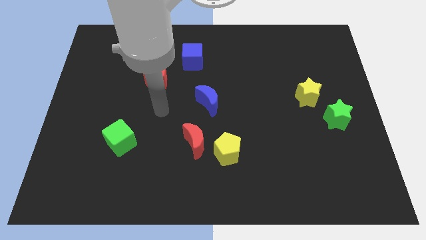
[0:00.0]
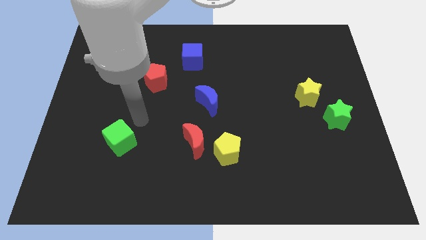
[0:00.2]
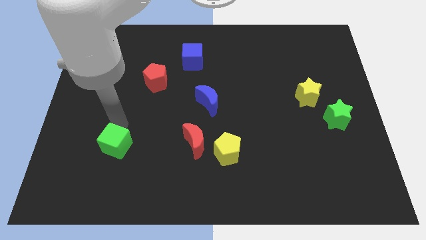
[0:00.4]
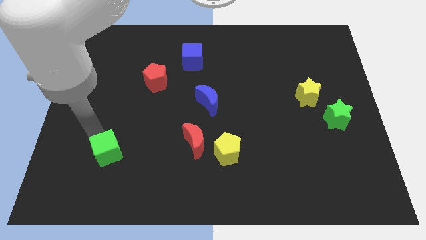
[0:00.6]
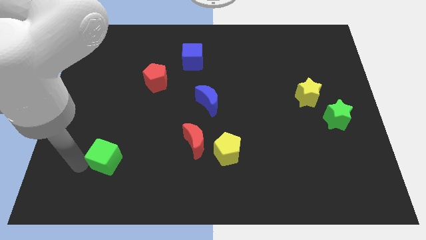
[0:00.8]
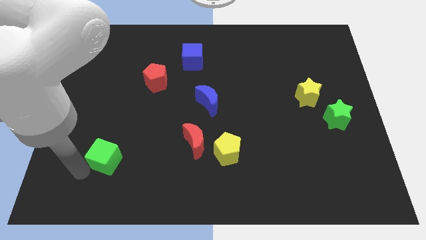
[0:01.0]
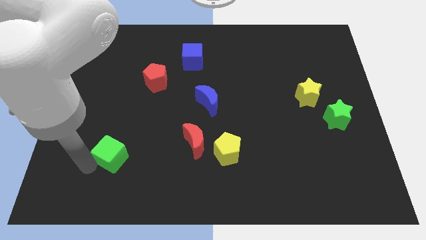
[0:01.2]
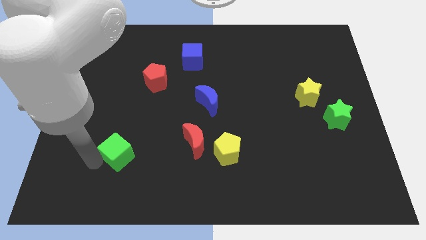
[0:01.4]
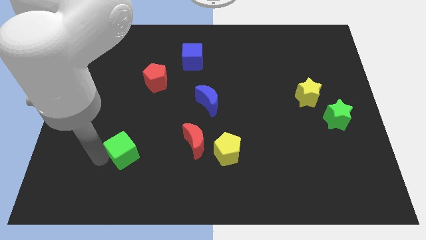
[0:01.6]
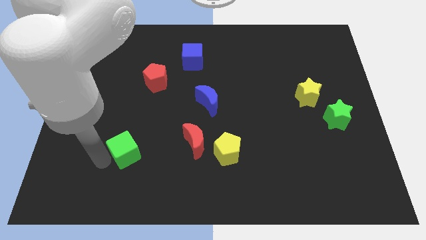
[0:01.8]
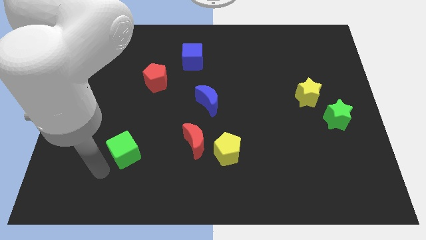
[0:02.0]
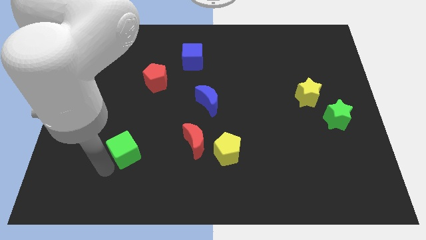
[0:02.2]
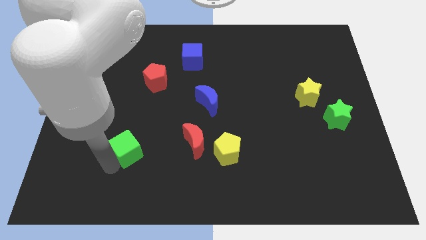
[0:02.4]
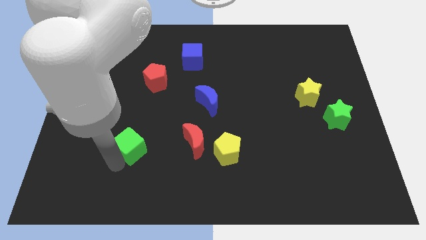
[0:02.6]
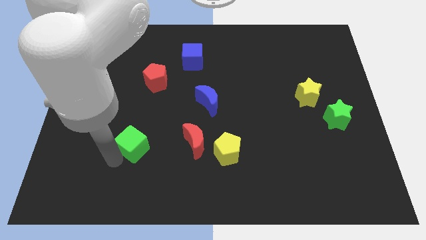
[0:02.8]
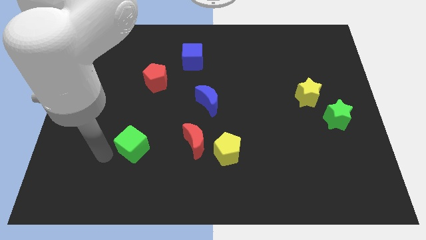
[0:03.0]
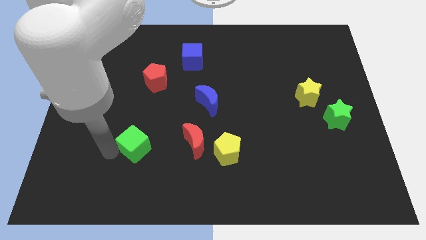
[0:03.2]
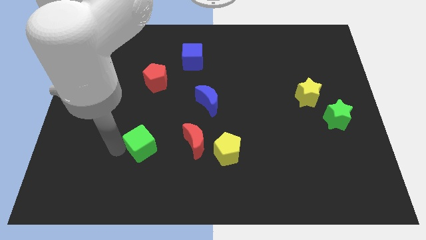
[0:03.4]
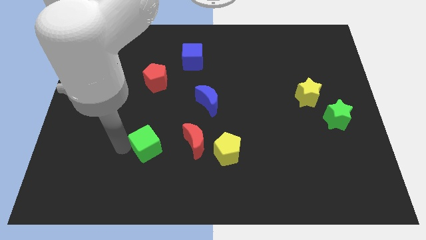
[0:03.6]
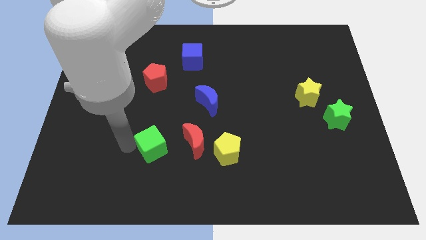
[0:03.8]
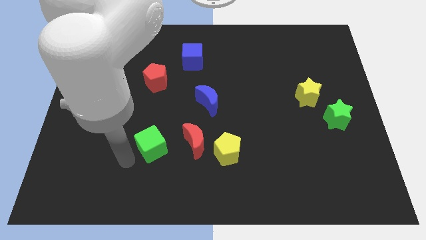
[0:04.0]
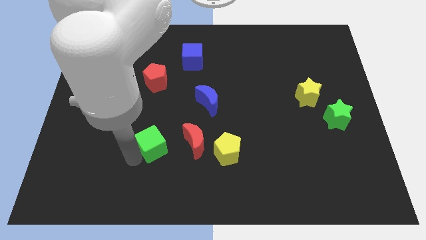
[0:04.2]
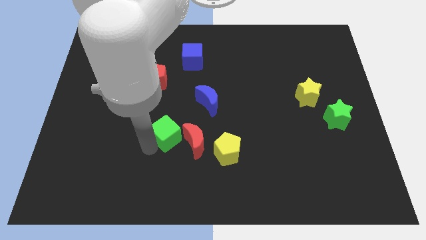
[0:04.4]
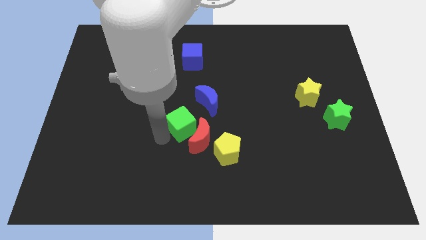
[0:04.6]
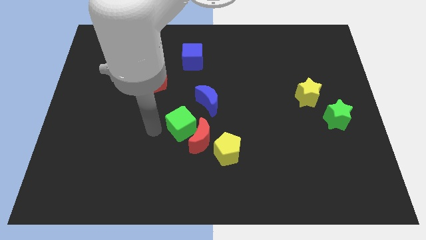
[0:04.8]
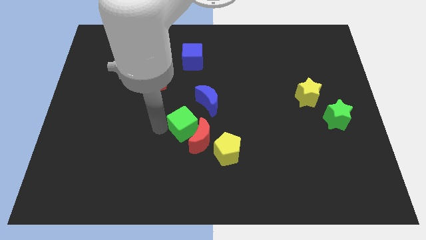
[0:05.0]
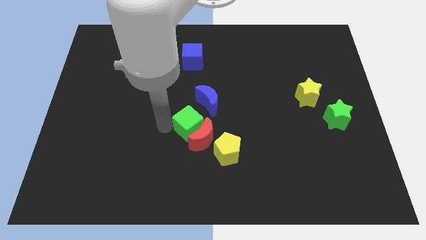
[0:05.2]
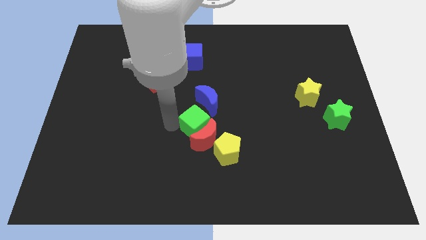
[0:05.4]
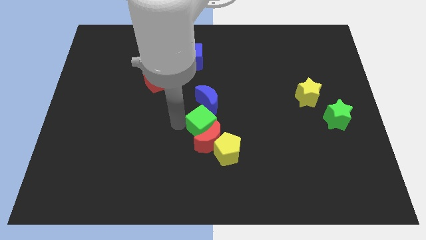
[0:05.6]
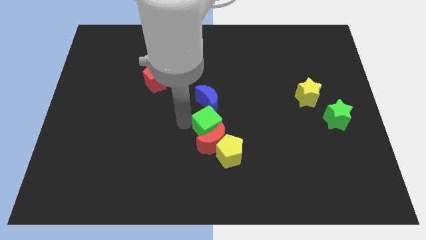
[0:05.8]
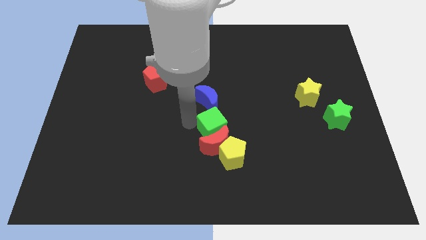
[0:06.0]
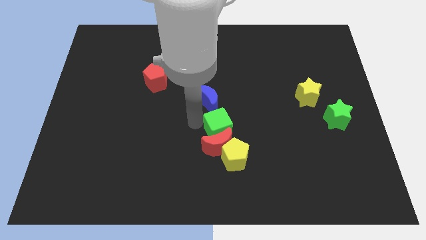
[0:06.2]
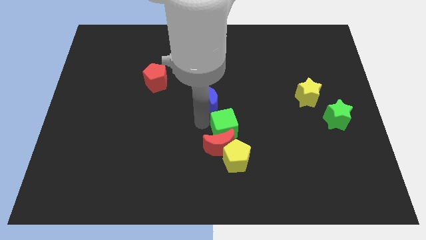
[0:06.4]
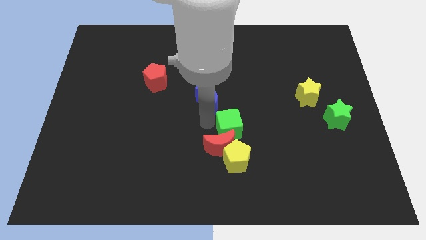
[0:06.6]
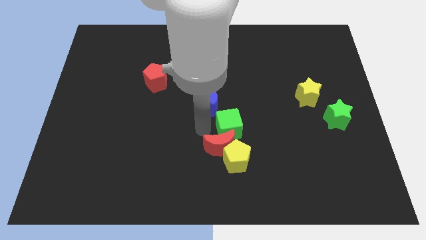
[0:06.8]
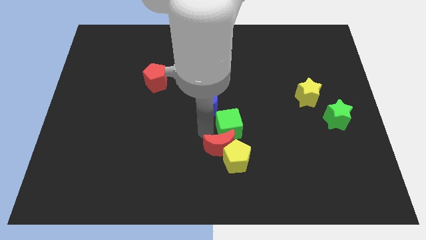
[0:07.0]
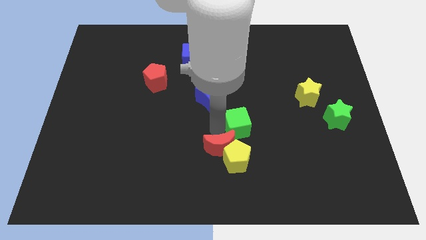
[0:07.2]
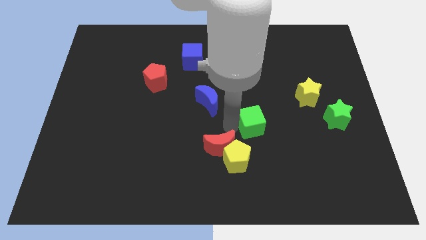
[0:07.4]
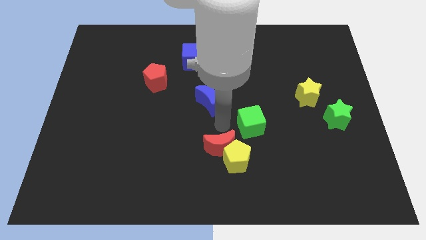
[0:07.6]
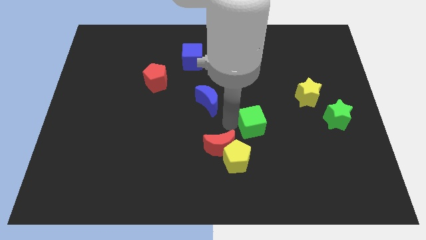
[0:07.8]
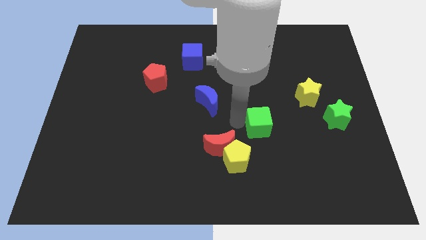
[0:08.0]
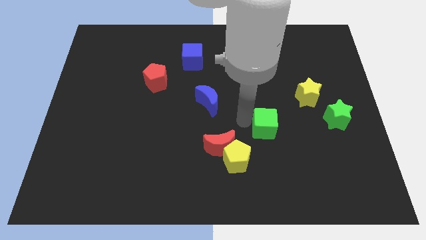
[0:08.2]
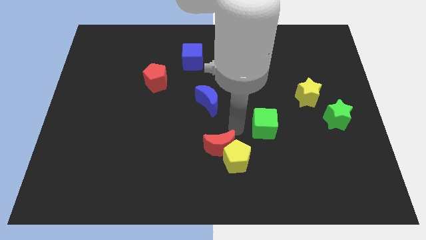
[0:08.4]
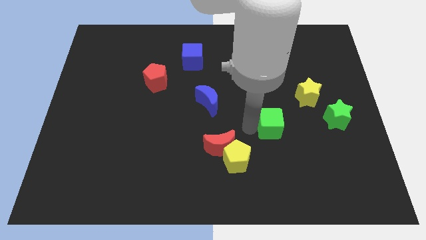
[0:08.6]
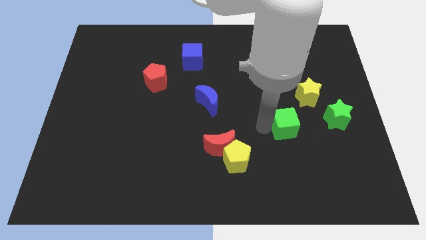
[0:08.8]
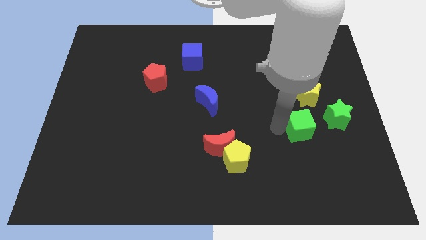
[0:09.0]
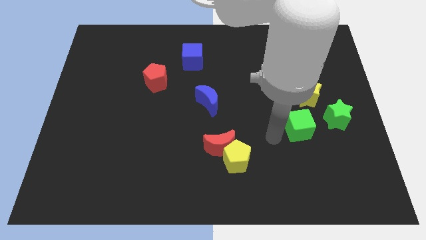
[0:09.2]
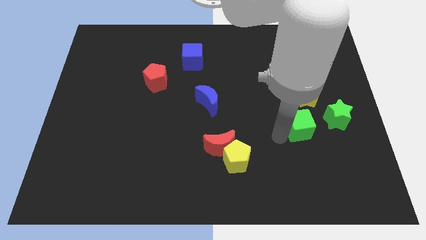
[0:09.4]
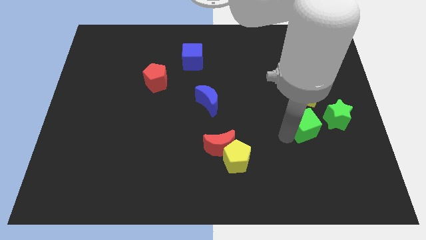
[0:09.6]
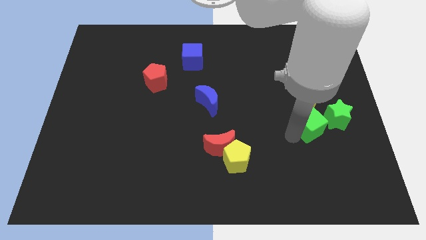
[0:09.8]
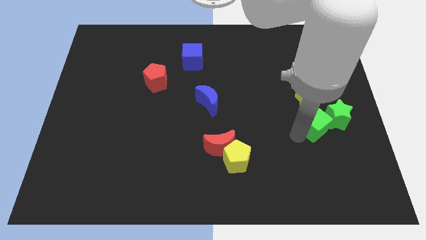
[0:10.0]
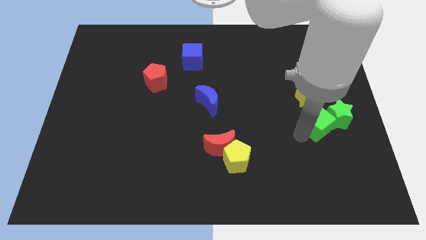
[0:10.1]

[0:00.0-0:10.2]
push the green cube to the green star

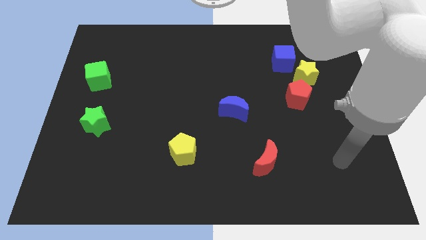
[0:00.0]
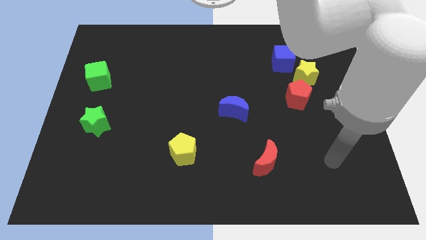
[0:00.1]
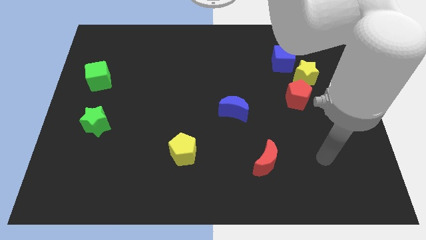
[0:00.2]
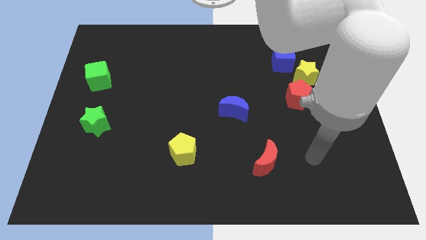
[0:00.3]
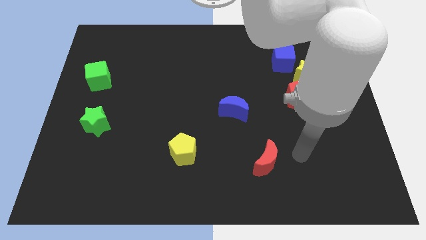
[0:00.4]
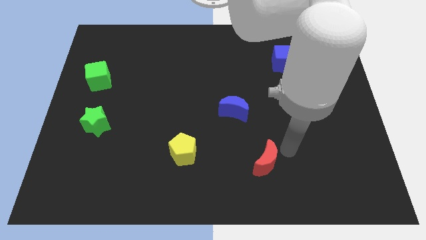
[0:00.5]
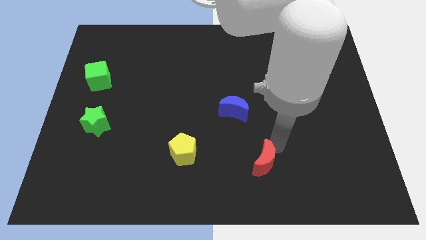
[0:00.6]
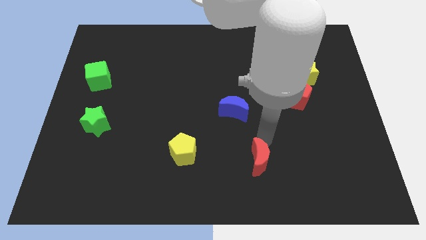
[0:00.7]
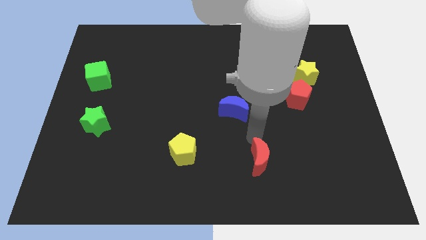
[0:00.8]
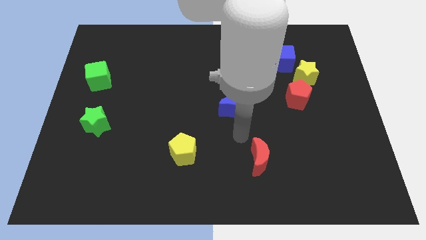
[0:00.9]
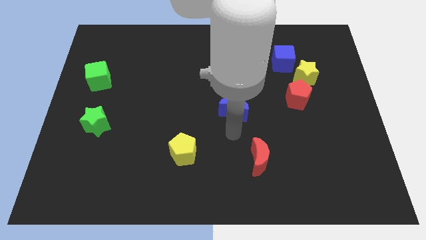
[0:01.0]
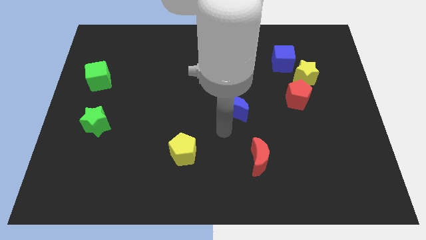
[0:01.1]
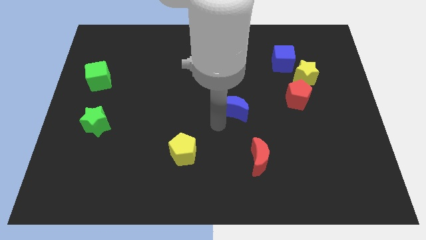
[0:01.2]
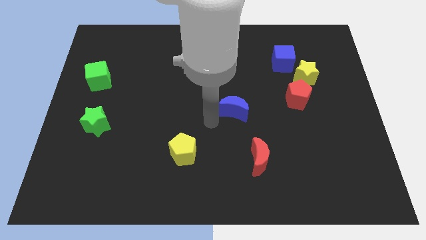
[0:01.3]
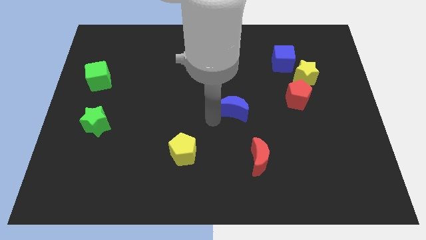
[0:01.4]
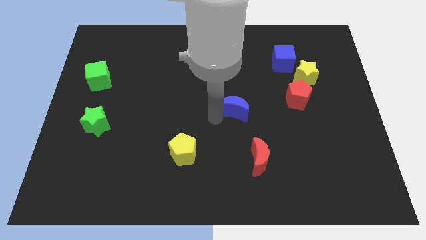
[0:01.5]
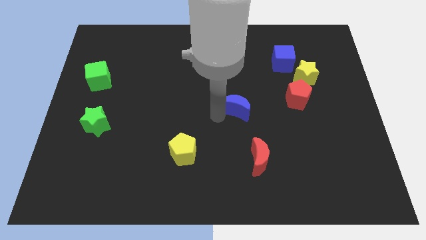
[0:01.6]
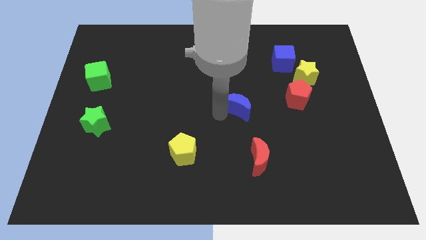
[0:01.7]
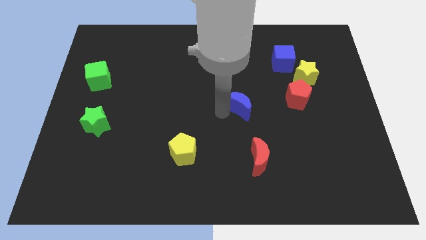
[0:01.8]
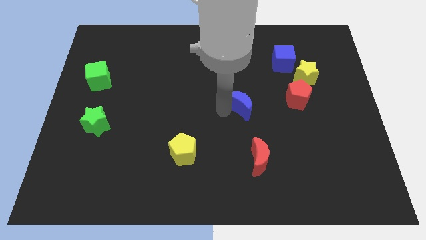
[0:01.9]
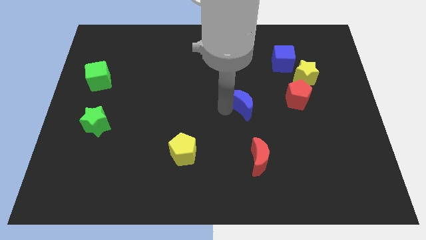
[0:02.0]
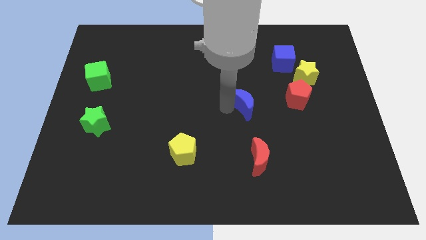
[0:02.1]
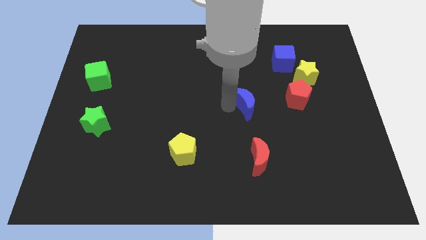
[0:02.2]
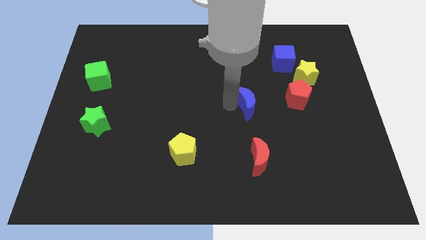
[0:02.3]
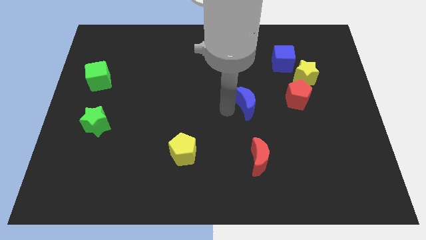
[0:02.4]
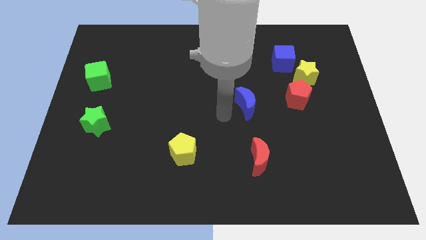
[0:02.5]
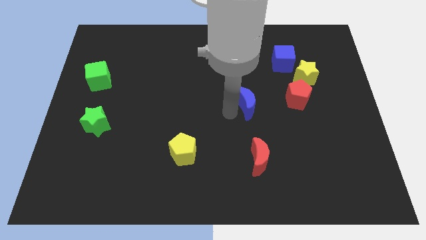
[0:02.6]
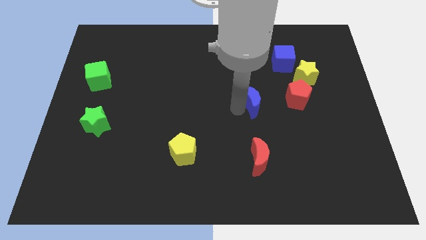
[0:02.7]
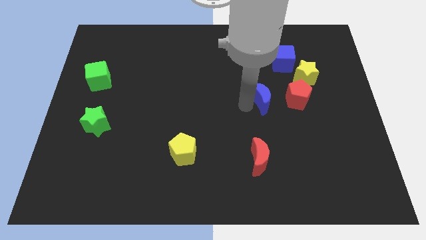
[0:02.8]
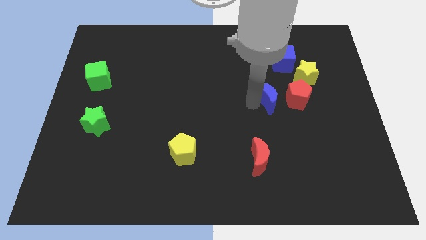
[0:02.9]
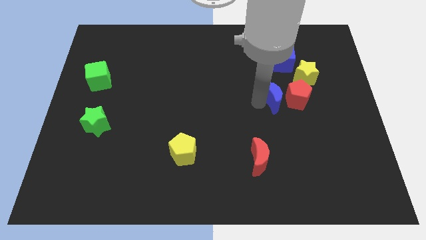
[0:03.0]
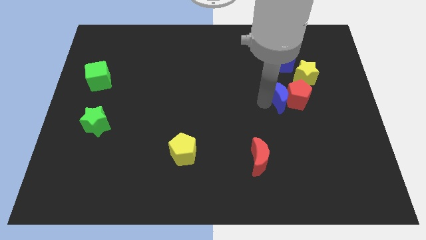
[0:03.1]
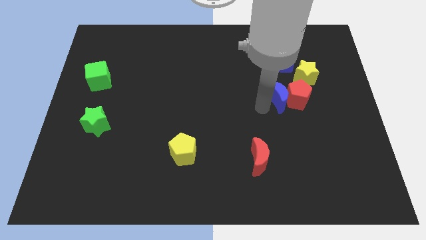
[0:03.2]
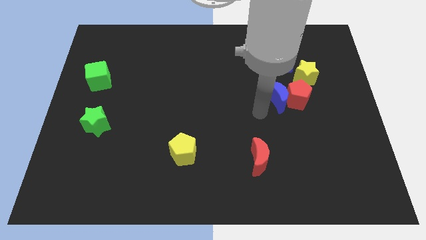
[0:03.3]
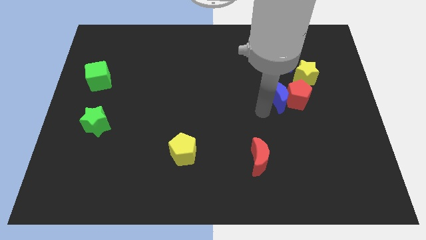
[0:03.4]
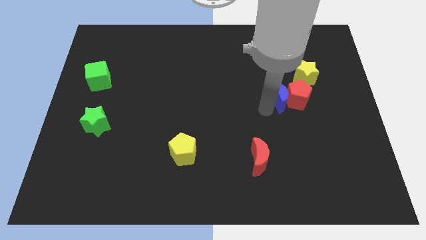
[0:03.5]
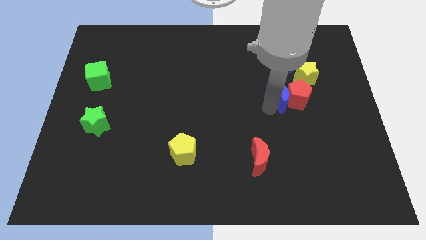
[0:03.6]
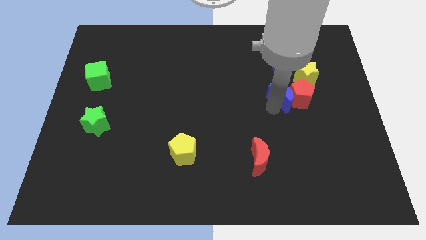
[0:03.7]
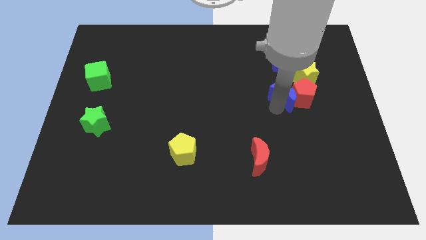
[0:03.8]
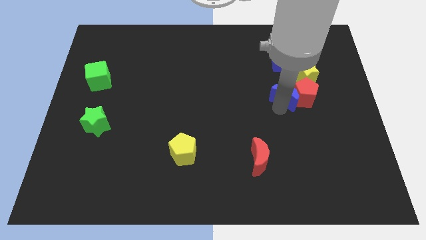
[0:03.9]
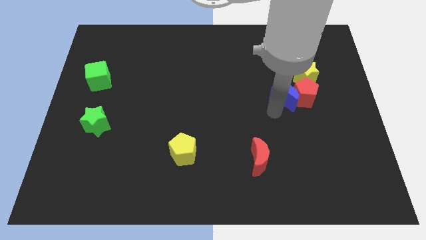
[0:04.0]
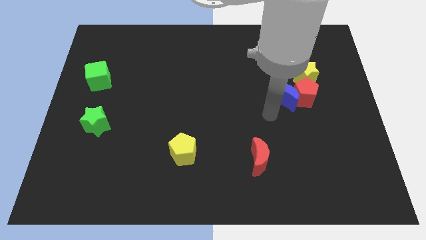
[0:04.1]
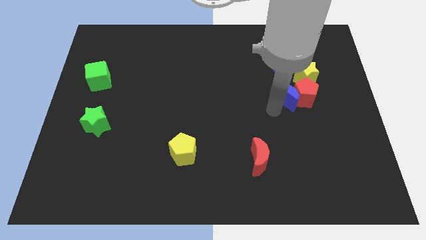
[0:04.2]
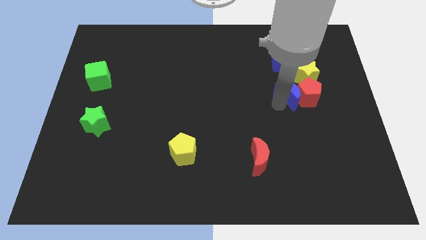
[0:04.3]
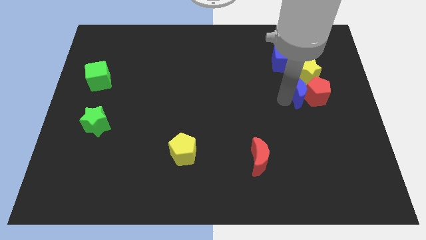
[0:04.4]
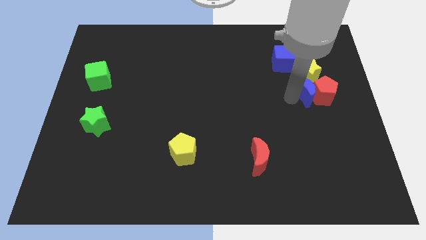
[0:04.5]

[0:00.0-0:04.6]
slide the blue moon towards the yellow star
